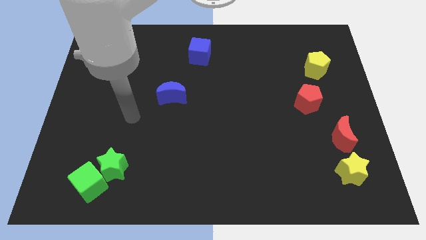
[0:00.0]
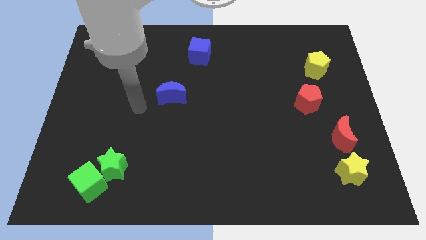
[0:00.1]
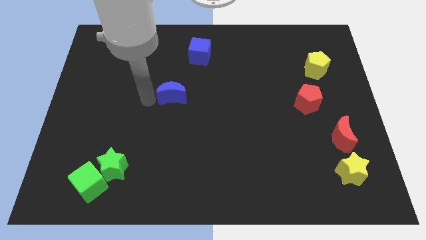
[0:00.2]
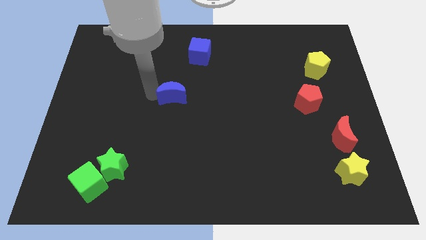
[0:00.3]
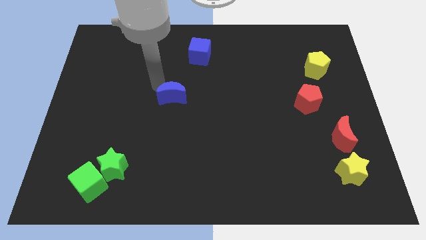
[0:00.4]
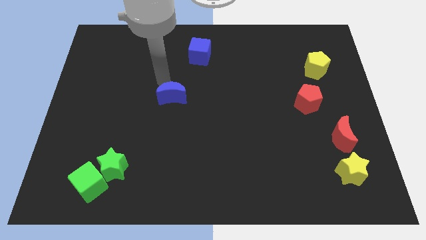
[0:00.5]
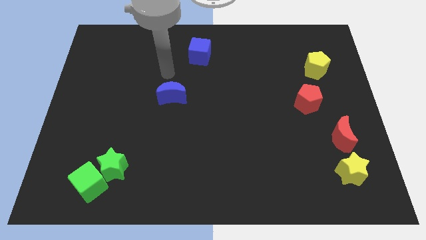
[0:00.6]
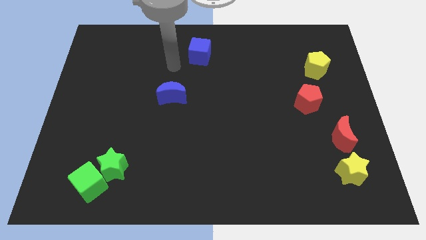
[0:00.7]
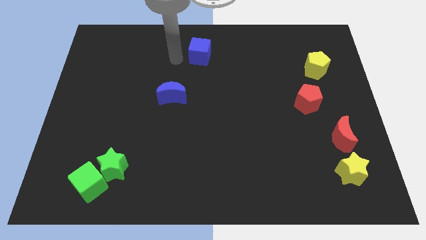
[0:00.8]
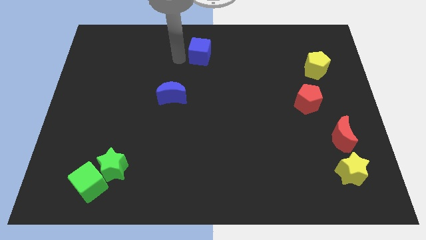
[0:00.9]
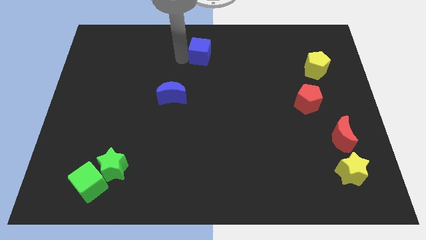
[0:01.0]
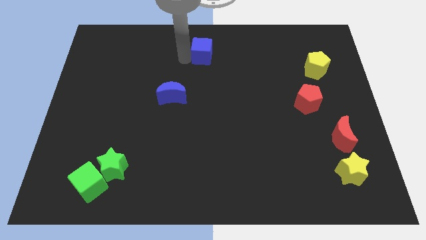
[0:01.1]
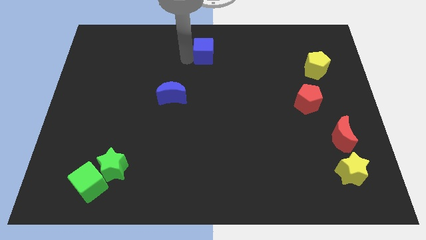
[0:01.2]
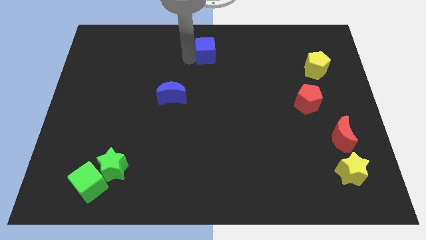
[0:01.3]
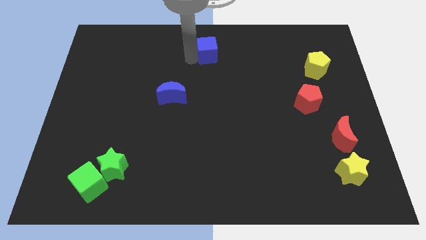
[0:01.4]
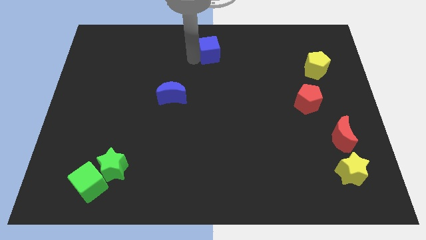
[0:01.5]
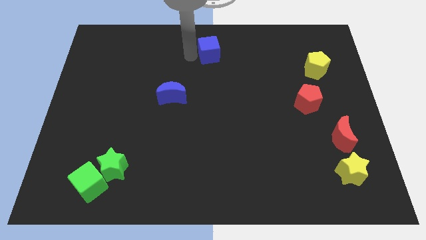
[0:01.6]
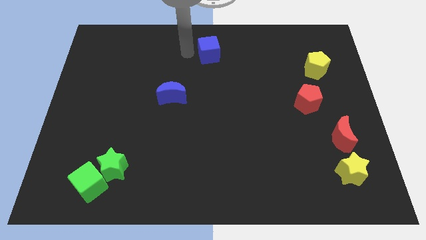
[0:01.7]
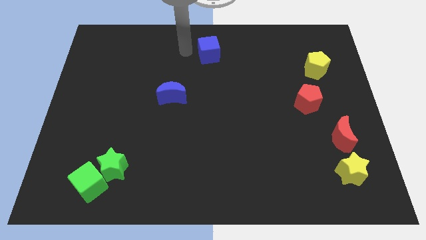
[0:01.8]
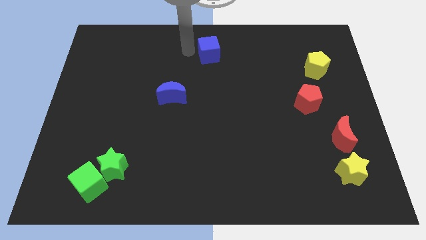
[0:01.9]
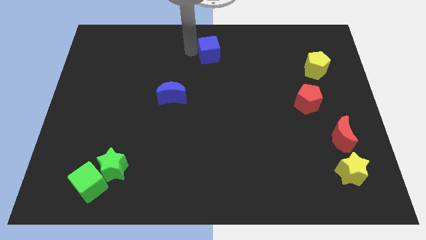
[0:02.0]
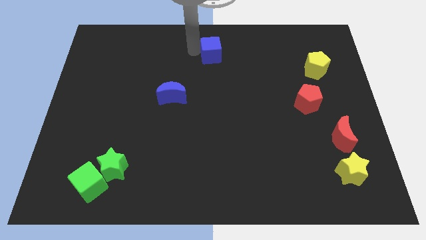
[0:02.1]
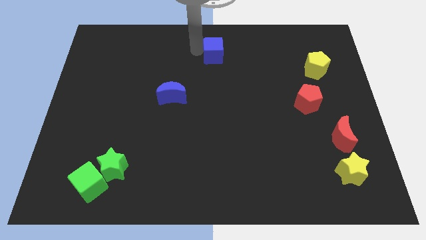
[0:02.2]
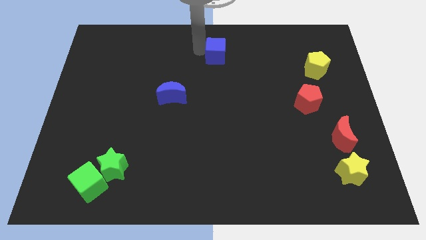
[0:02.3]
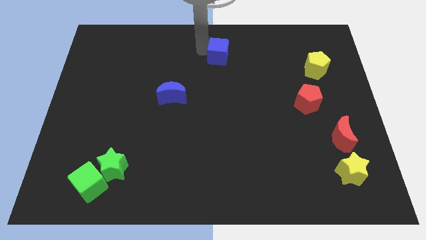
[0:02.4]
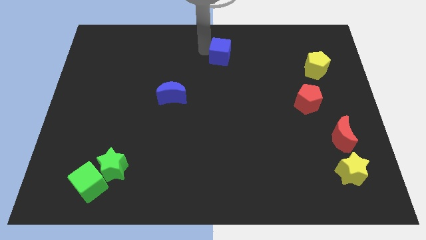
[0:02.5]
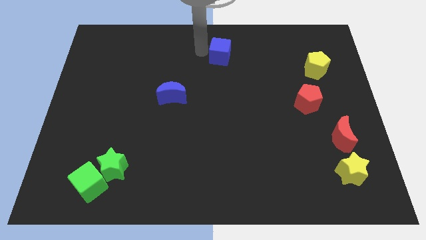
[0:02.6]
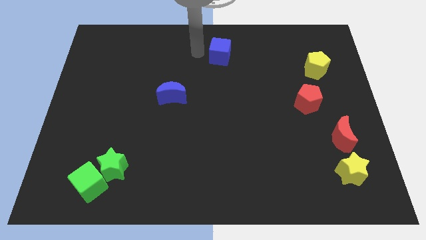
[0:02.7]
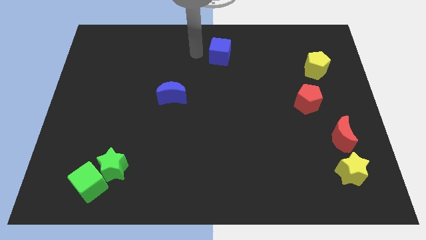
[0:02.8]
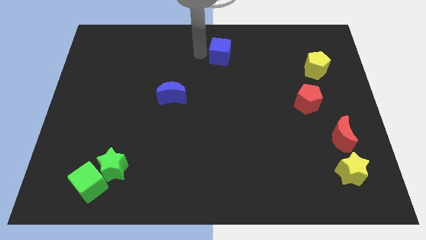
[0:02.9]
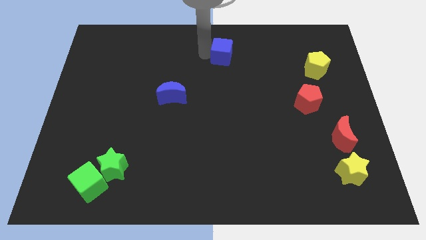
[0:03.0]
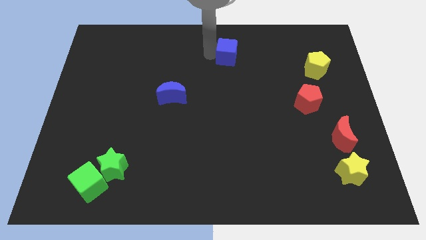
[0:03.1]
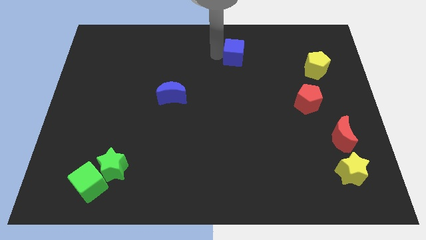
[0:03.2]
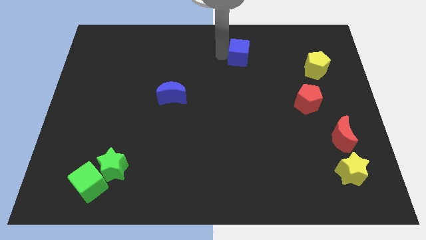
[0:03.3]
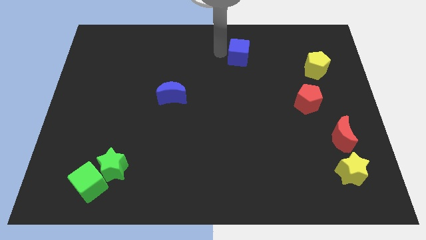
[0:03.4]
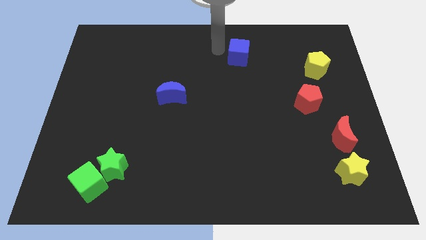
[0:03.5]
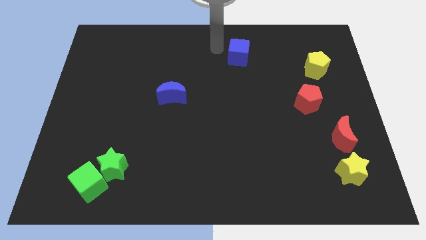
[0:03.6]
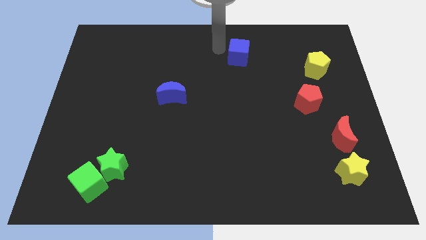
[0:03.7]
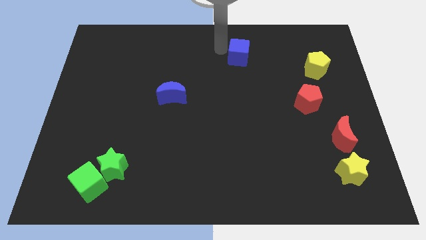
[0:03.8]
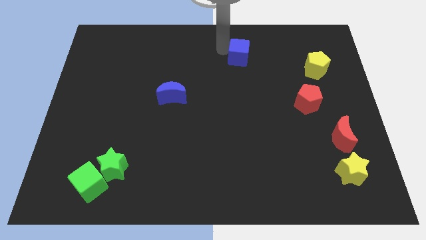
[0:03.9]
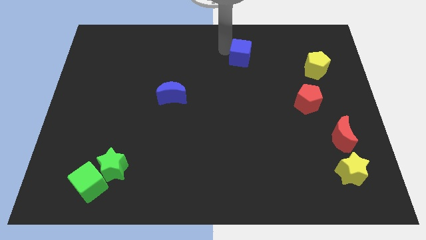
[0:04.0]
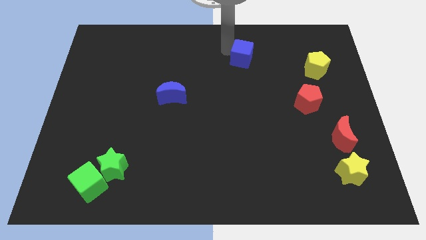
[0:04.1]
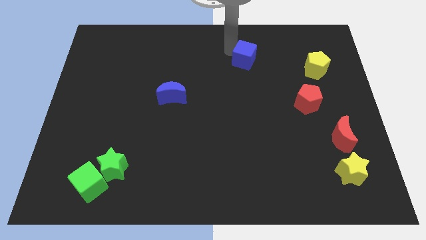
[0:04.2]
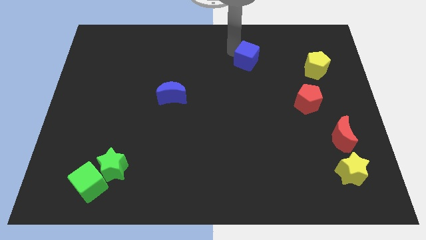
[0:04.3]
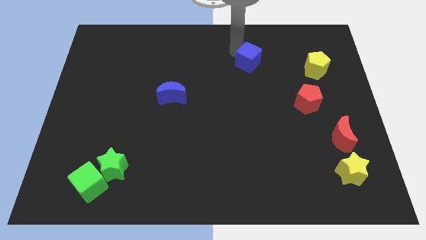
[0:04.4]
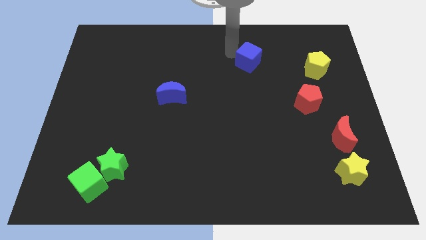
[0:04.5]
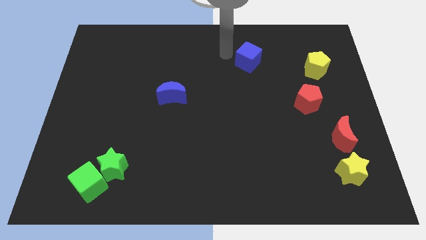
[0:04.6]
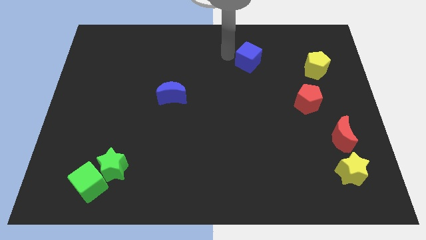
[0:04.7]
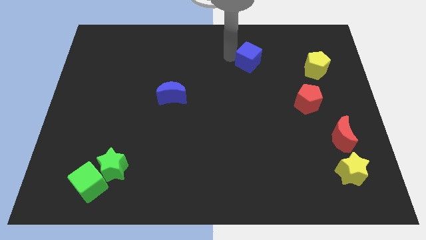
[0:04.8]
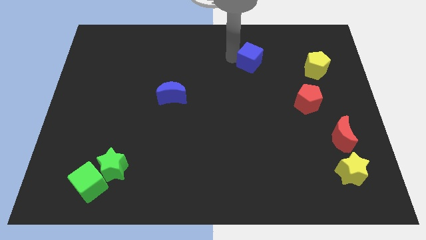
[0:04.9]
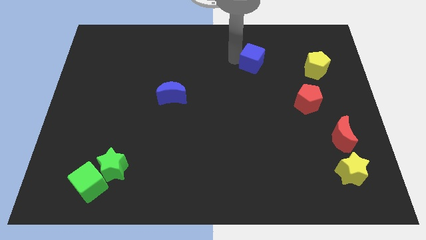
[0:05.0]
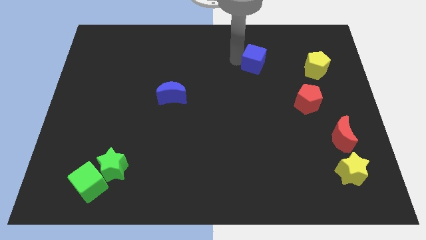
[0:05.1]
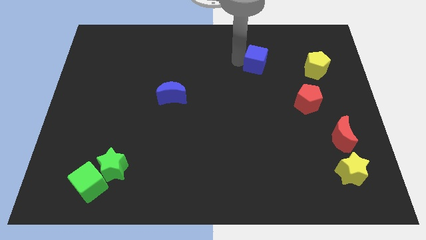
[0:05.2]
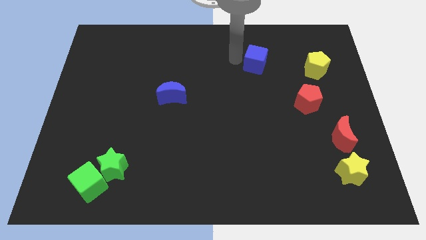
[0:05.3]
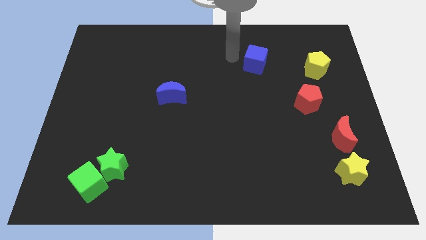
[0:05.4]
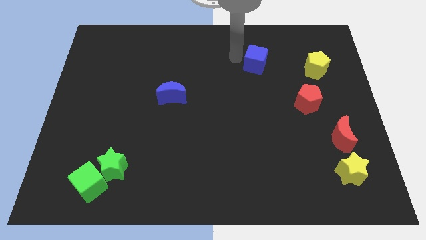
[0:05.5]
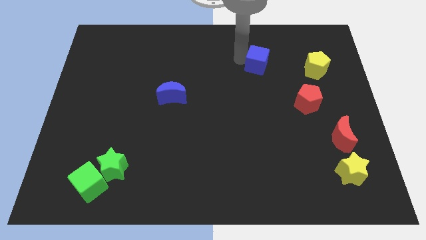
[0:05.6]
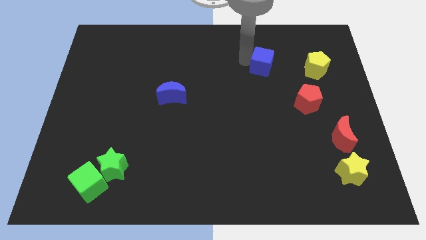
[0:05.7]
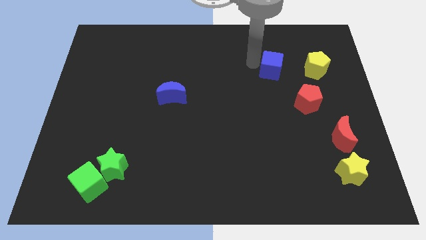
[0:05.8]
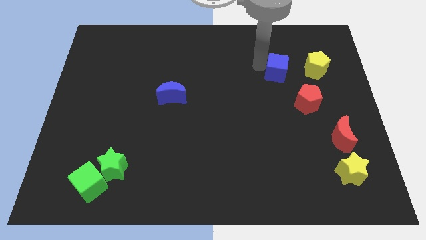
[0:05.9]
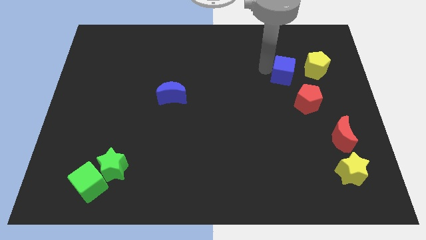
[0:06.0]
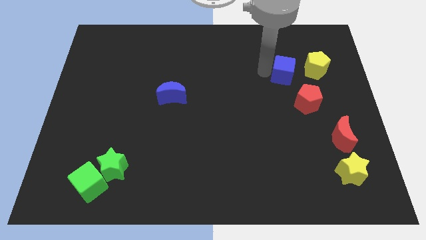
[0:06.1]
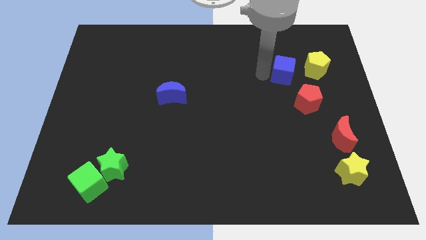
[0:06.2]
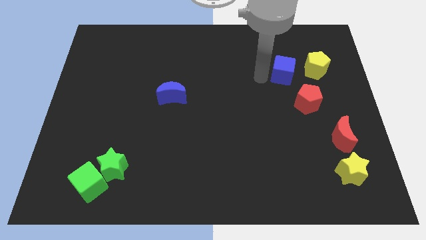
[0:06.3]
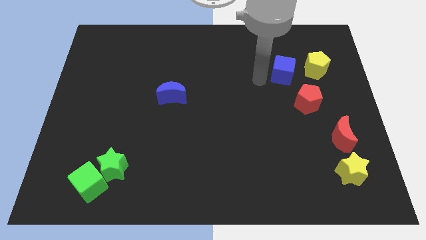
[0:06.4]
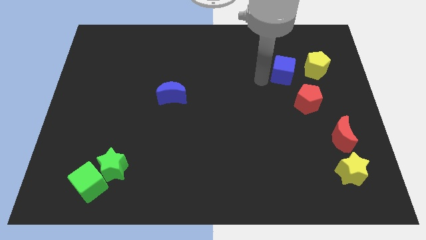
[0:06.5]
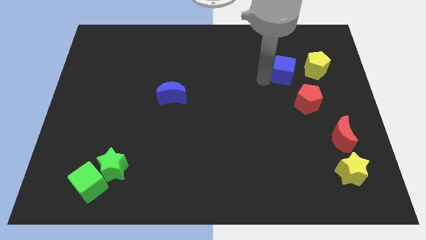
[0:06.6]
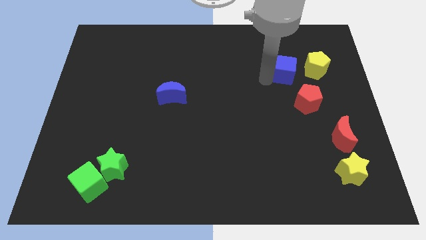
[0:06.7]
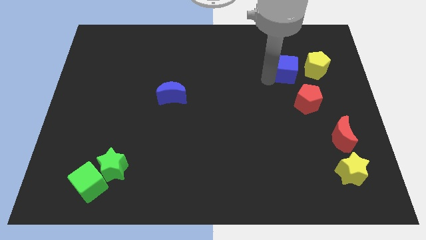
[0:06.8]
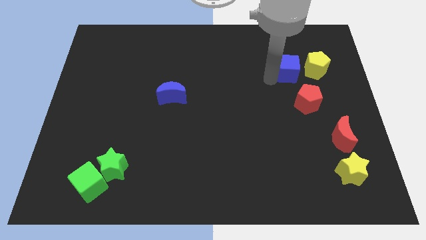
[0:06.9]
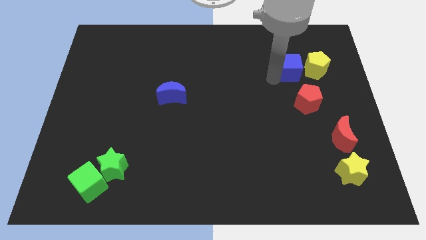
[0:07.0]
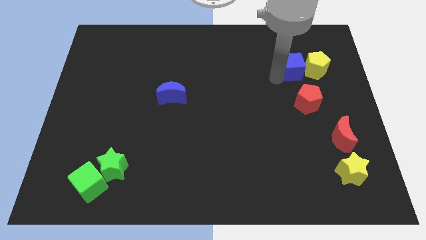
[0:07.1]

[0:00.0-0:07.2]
push the blue cube to the yellow pentagon
